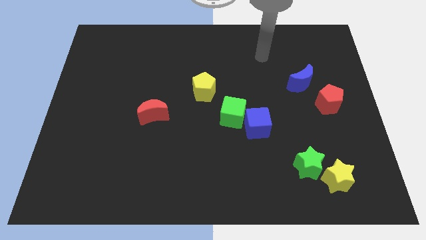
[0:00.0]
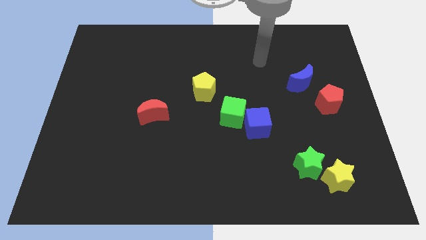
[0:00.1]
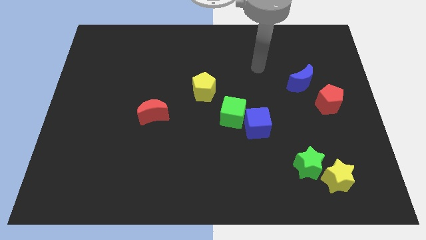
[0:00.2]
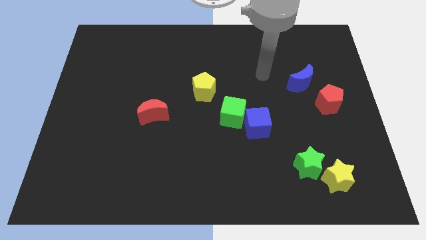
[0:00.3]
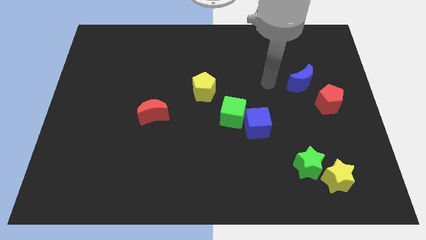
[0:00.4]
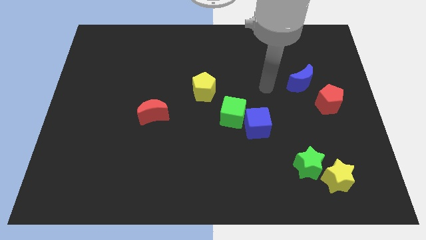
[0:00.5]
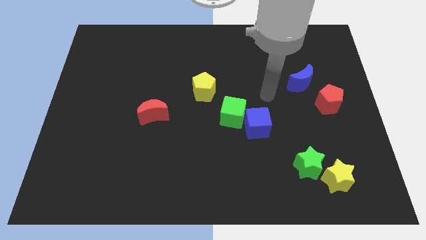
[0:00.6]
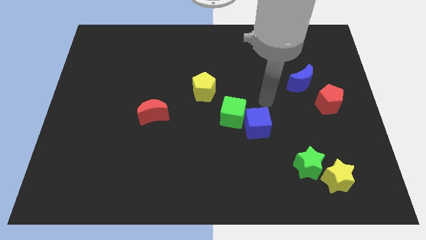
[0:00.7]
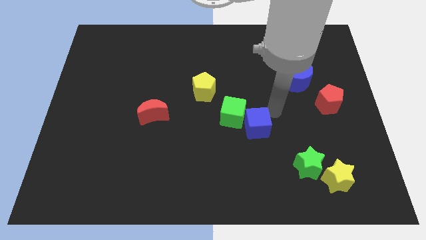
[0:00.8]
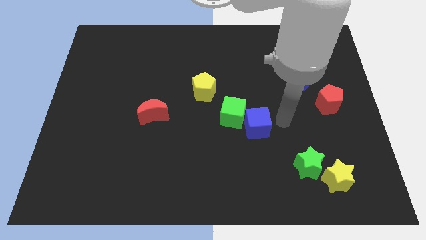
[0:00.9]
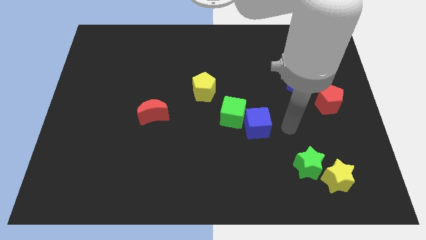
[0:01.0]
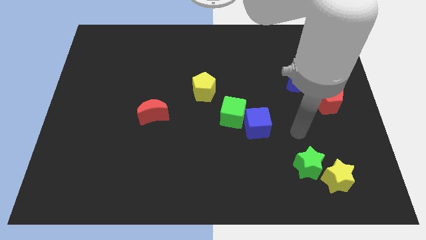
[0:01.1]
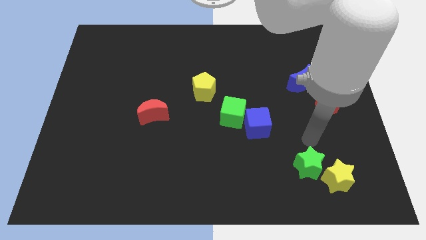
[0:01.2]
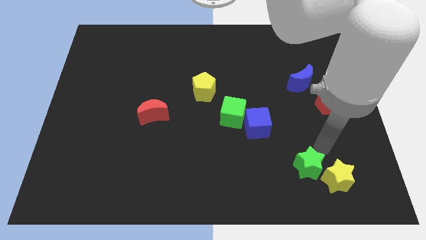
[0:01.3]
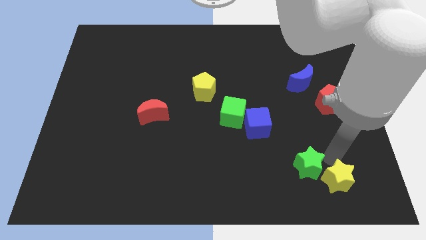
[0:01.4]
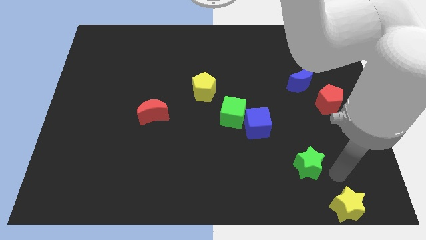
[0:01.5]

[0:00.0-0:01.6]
move the green star away from the yellow star

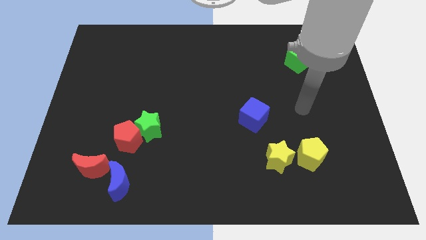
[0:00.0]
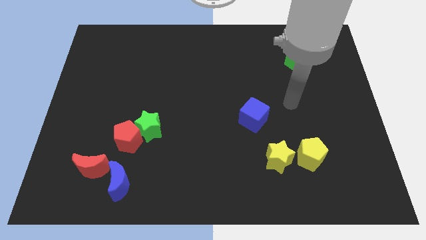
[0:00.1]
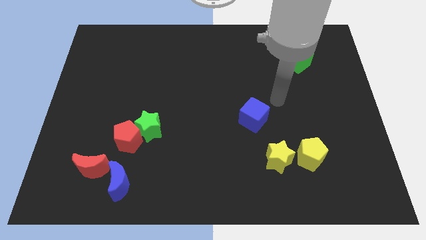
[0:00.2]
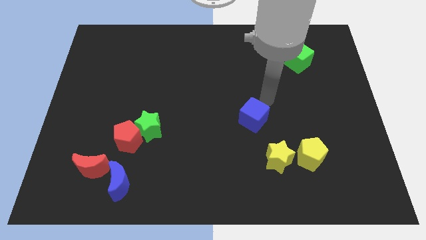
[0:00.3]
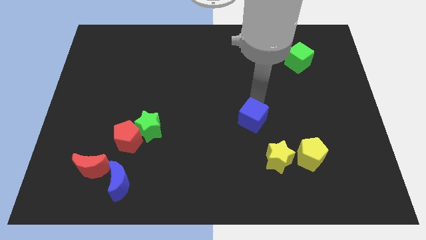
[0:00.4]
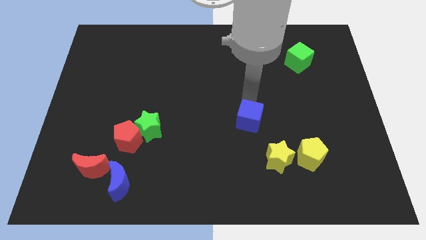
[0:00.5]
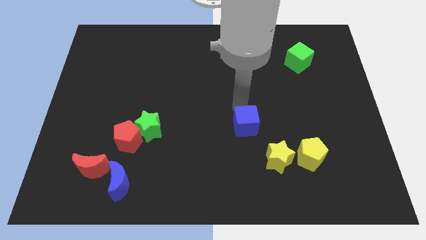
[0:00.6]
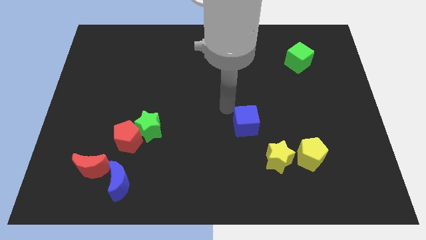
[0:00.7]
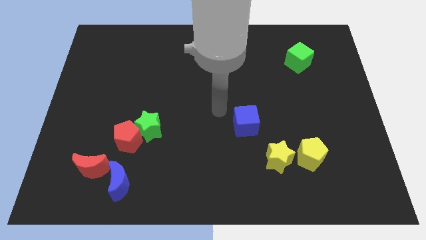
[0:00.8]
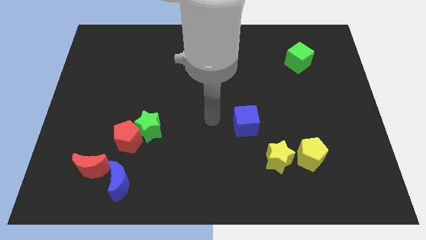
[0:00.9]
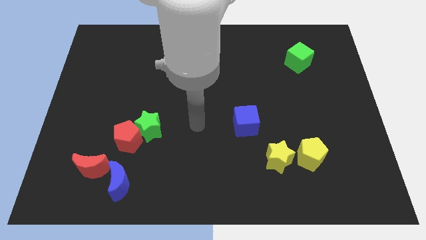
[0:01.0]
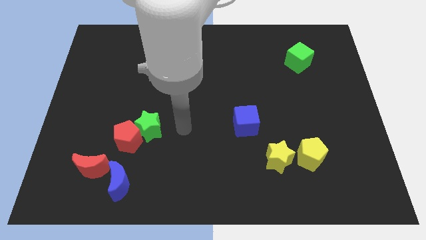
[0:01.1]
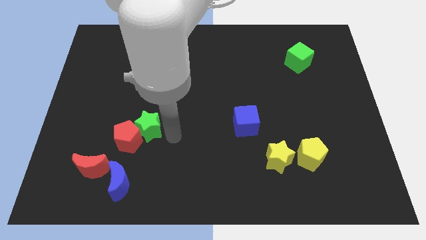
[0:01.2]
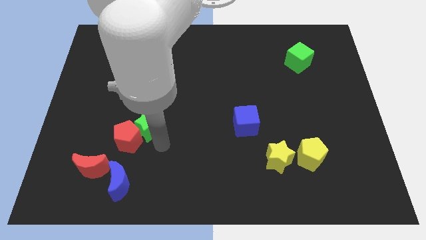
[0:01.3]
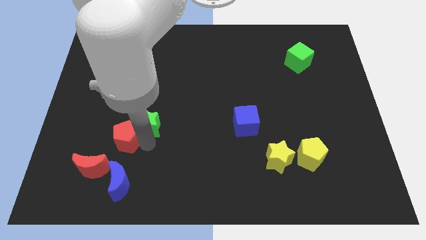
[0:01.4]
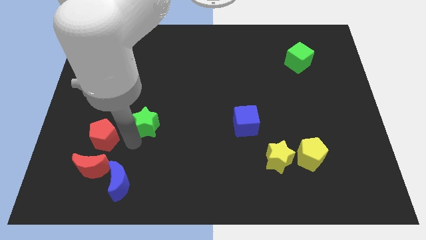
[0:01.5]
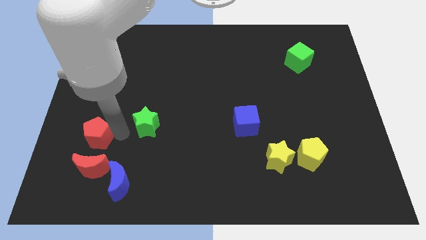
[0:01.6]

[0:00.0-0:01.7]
separate the green star from the red pentagon

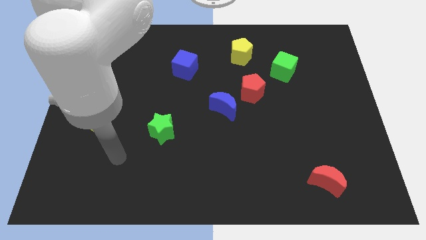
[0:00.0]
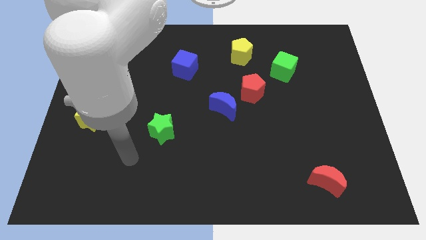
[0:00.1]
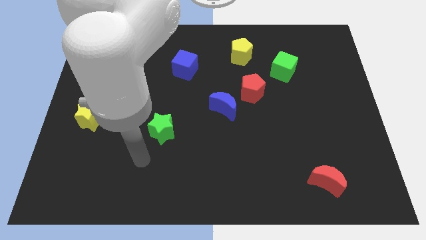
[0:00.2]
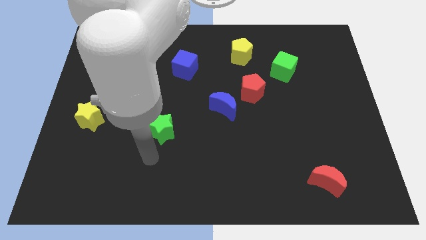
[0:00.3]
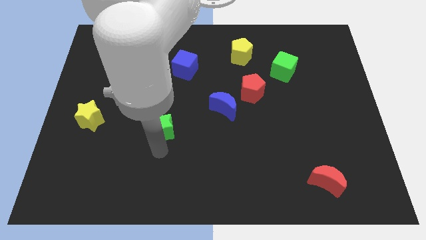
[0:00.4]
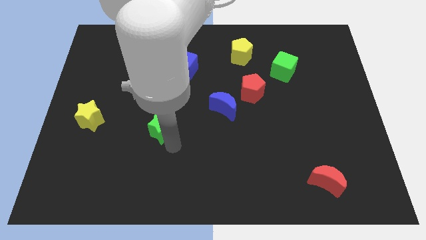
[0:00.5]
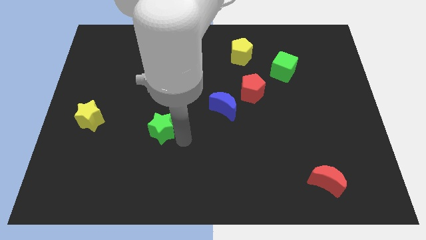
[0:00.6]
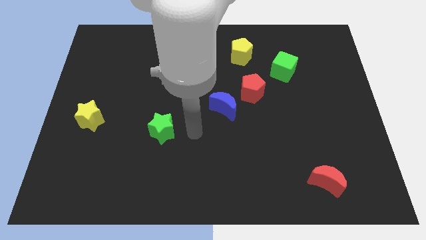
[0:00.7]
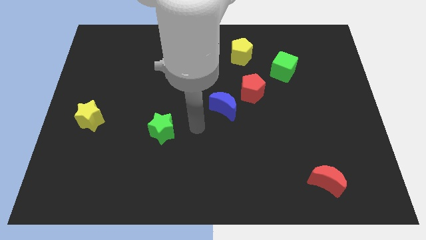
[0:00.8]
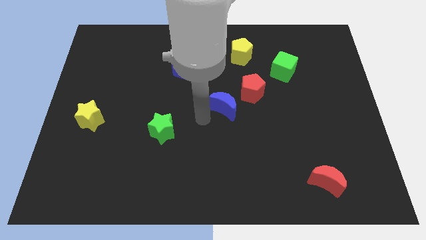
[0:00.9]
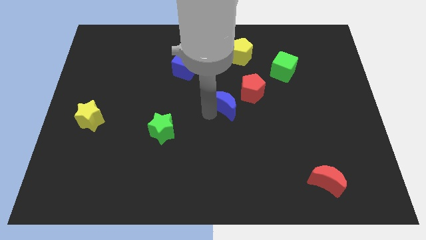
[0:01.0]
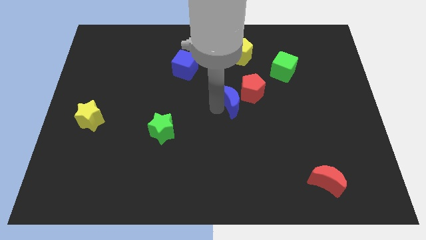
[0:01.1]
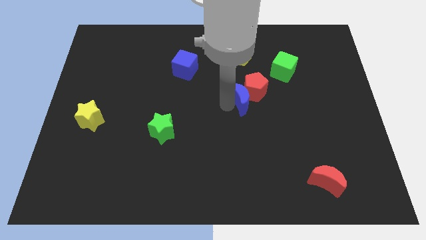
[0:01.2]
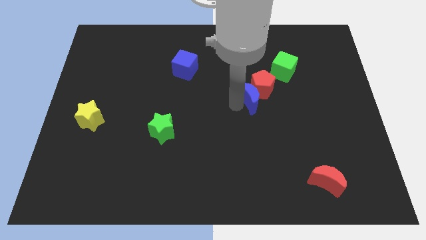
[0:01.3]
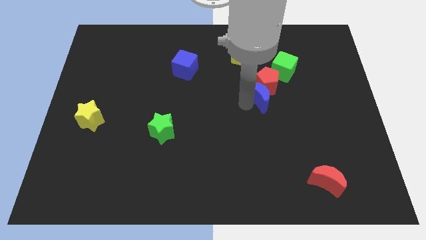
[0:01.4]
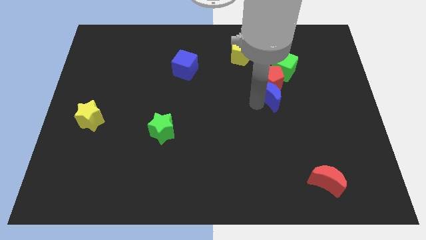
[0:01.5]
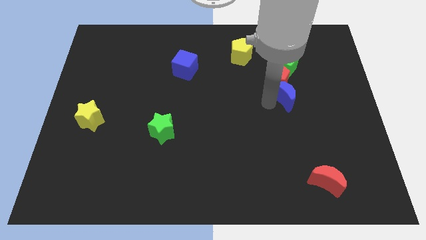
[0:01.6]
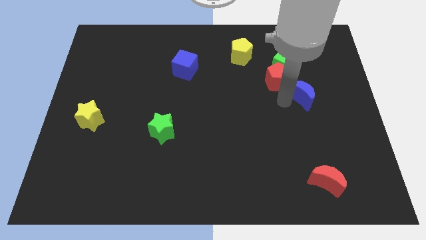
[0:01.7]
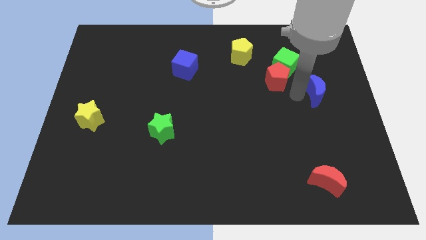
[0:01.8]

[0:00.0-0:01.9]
move the red pentagon away from the blue moon

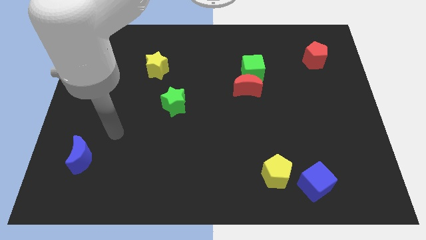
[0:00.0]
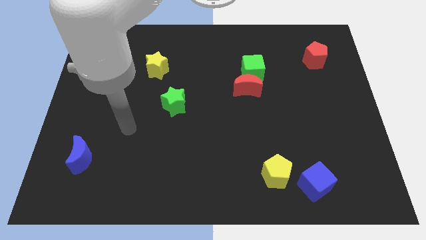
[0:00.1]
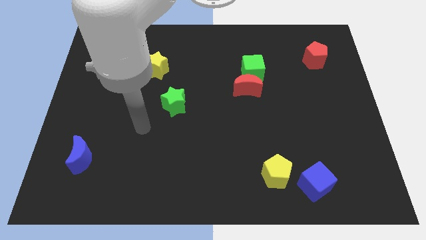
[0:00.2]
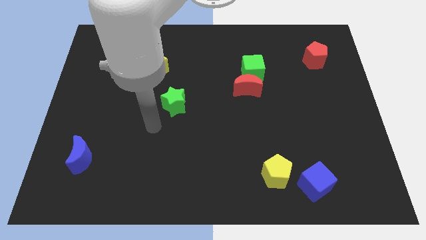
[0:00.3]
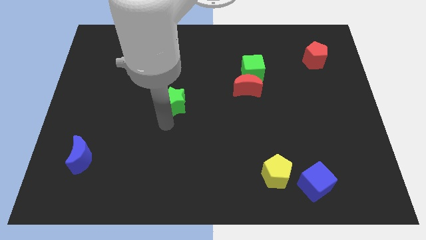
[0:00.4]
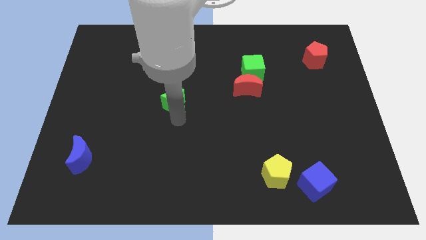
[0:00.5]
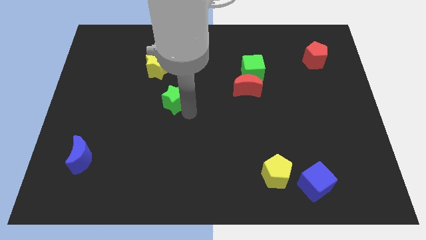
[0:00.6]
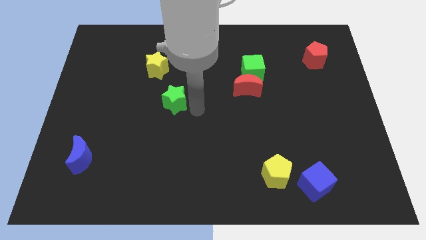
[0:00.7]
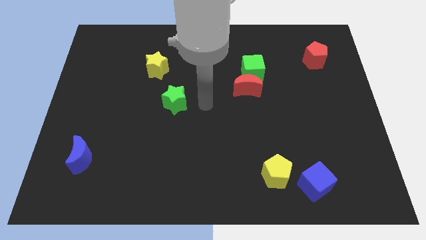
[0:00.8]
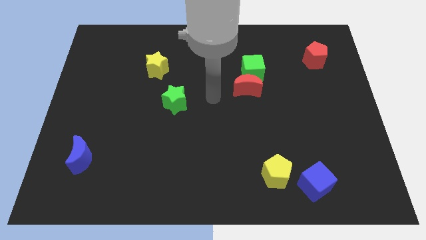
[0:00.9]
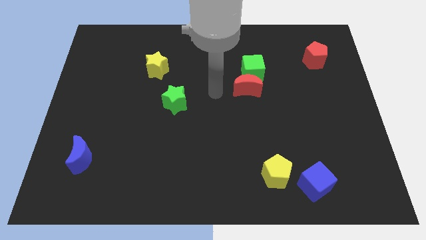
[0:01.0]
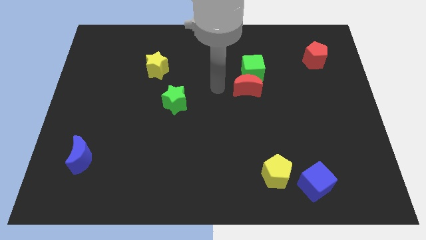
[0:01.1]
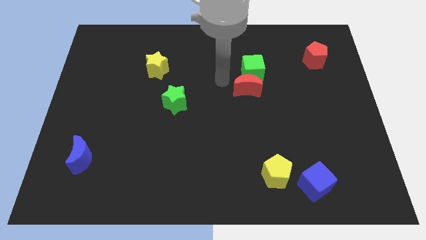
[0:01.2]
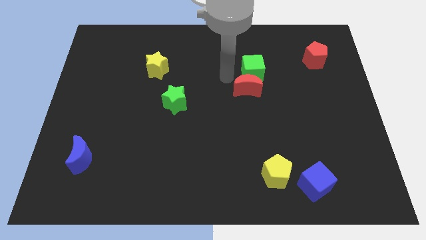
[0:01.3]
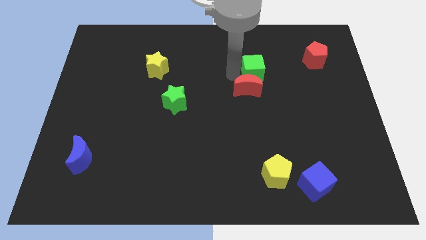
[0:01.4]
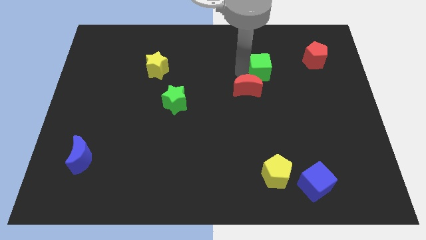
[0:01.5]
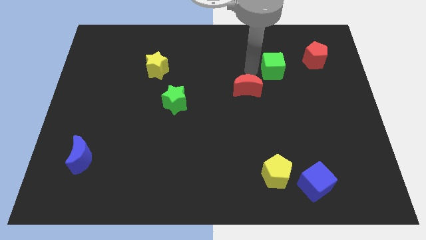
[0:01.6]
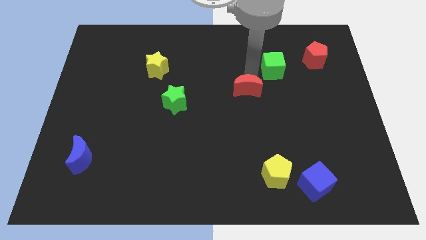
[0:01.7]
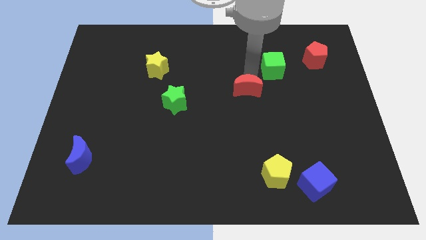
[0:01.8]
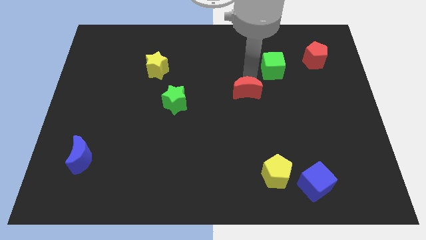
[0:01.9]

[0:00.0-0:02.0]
pull the red moon apart from the green cube

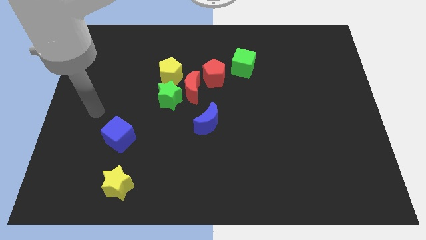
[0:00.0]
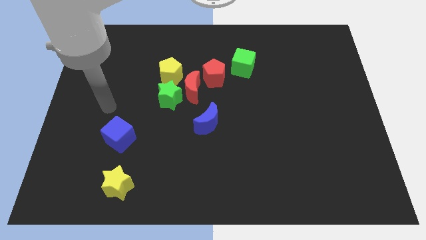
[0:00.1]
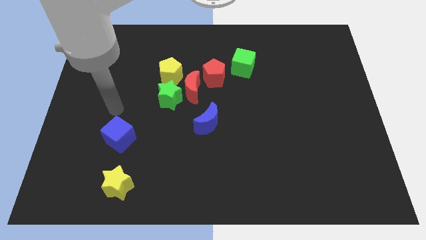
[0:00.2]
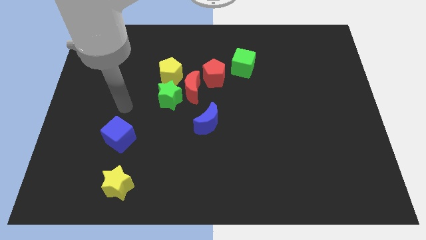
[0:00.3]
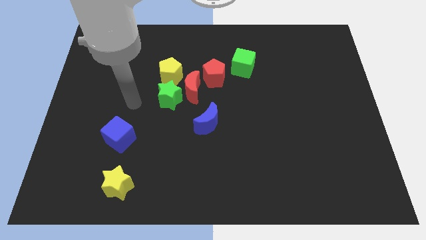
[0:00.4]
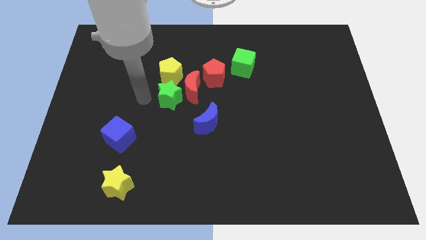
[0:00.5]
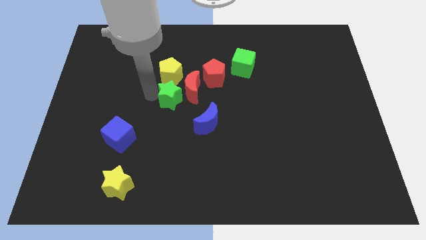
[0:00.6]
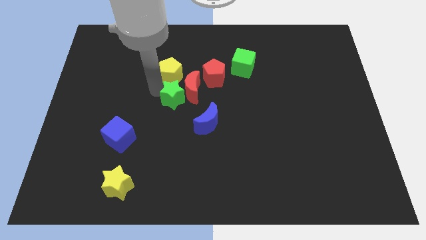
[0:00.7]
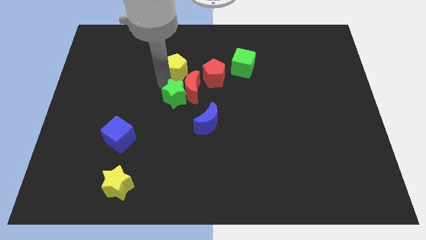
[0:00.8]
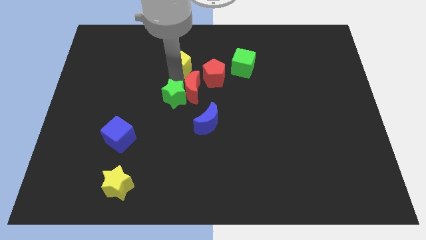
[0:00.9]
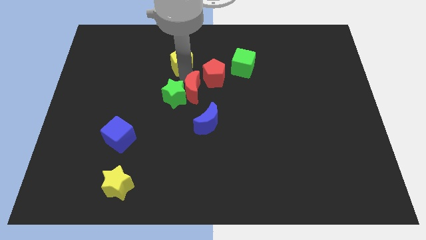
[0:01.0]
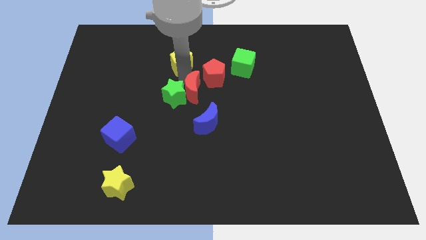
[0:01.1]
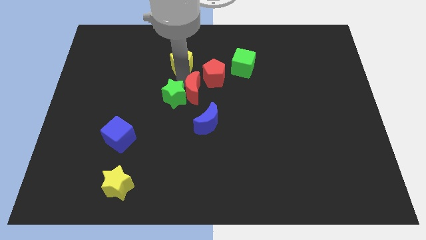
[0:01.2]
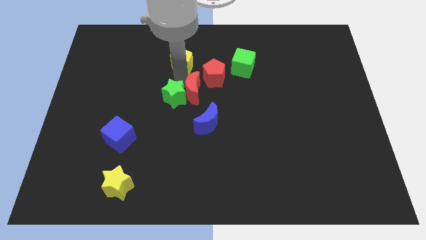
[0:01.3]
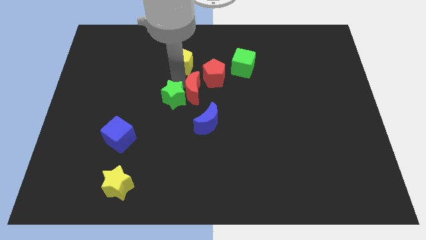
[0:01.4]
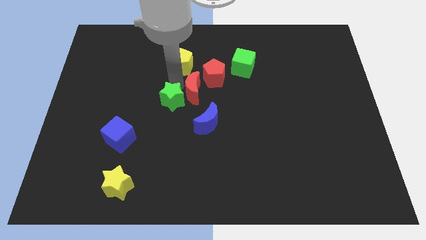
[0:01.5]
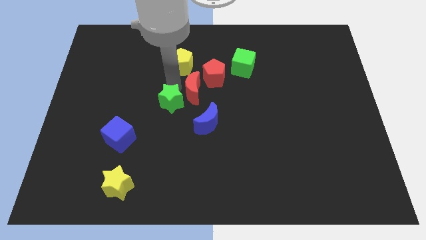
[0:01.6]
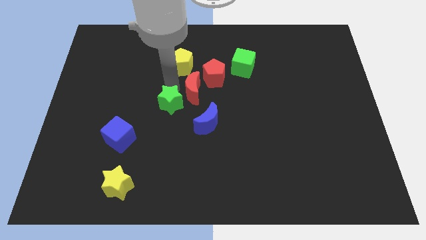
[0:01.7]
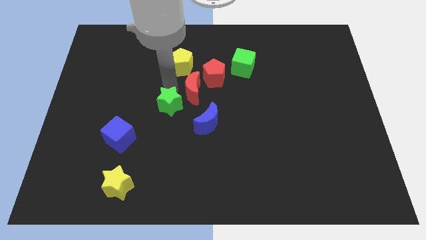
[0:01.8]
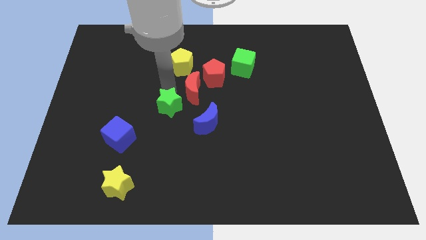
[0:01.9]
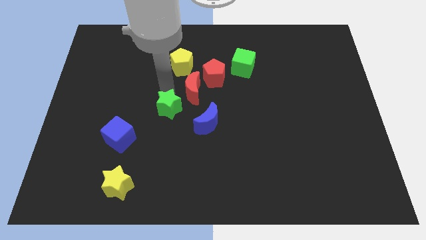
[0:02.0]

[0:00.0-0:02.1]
pull the green star apart from the red moon and yellow pentagon
